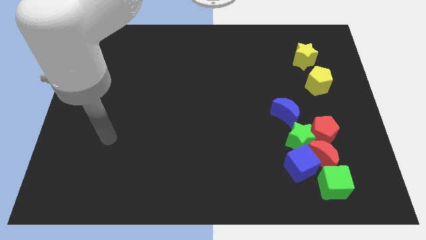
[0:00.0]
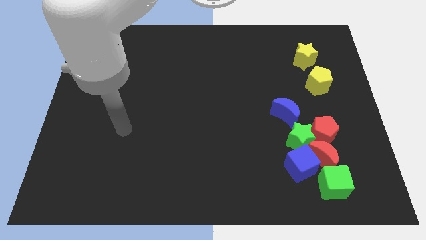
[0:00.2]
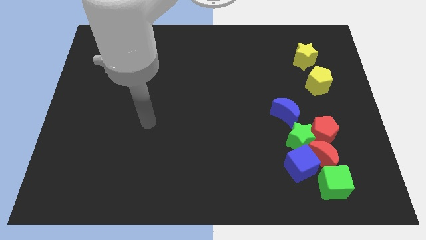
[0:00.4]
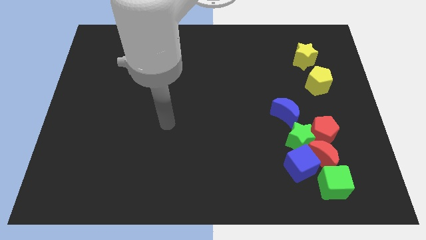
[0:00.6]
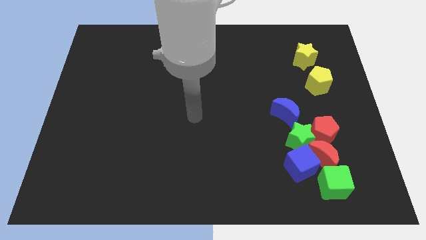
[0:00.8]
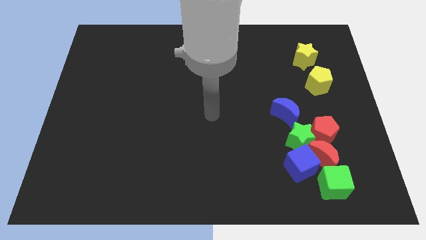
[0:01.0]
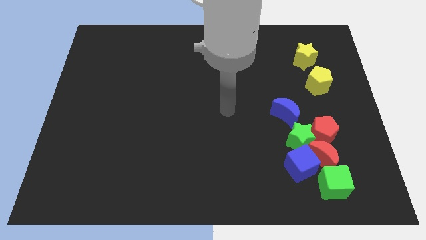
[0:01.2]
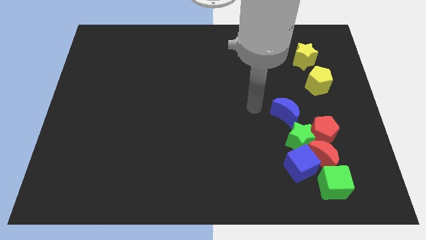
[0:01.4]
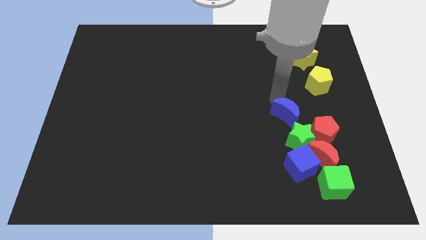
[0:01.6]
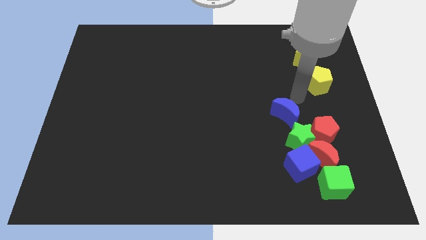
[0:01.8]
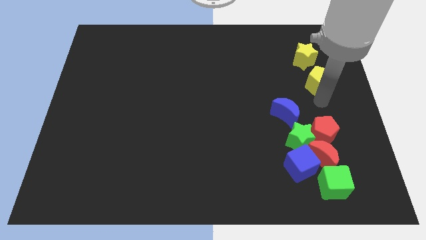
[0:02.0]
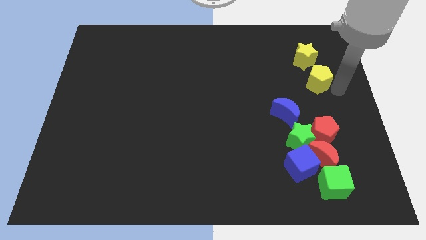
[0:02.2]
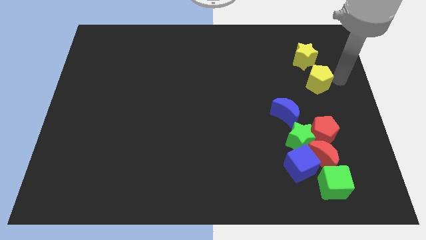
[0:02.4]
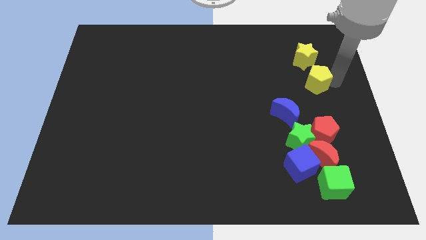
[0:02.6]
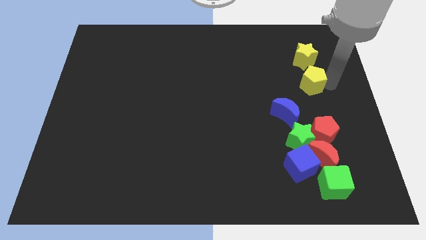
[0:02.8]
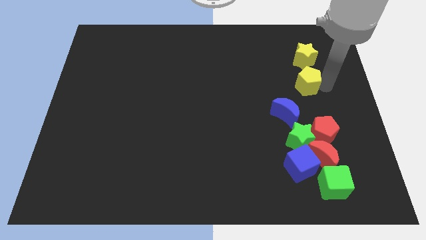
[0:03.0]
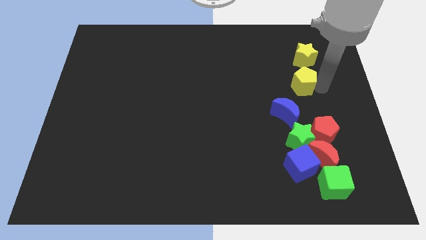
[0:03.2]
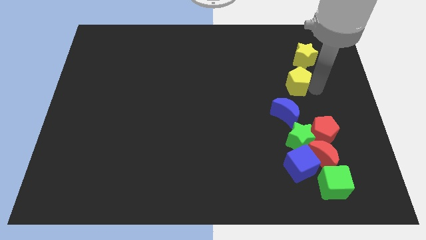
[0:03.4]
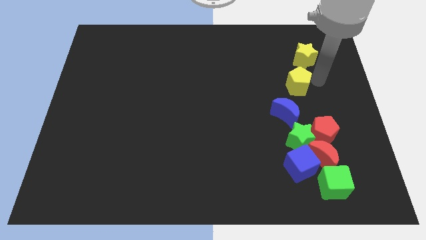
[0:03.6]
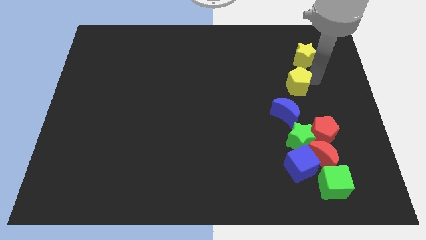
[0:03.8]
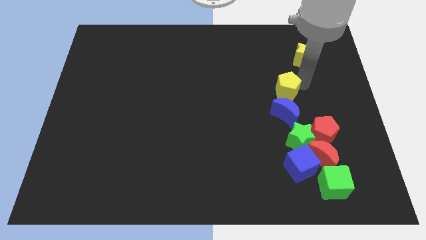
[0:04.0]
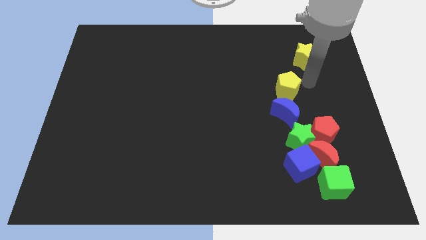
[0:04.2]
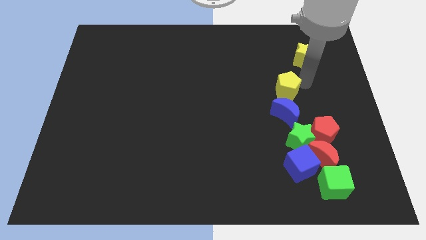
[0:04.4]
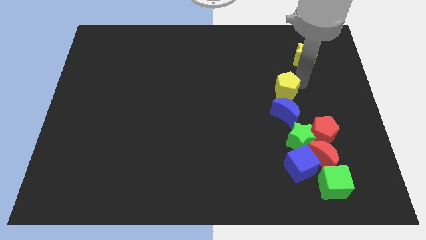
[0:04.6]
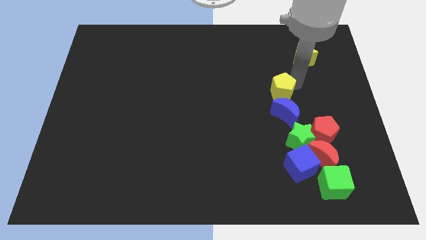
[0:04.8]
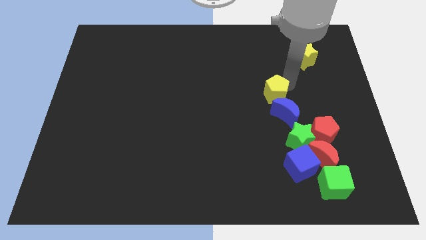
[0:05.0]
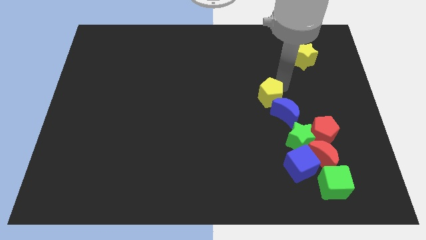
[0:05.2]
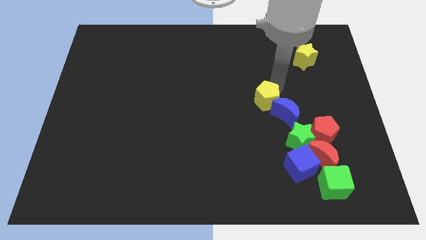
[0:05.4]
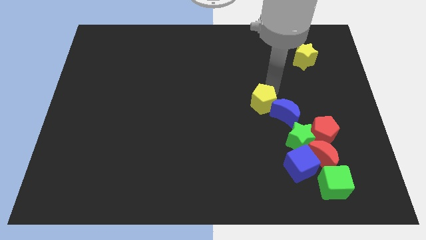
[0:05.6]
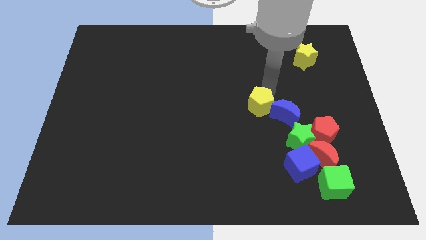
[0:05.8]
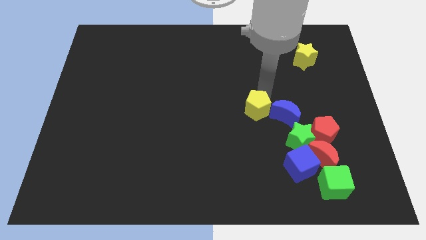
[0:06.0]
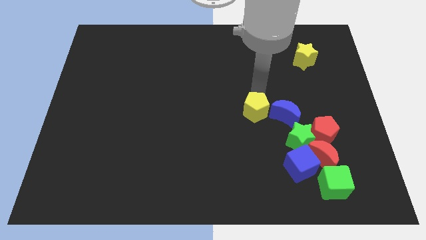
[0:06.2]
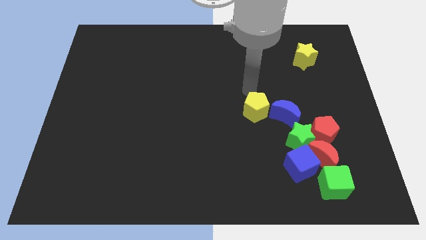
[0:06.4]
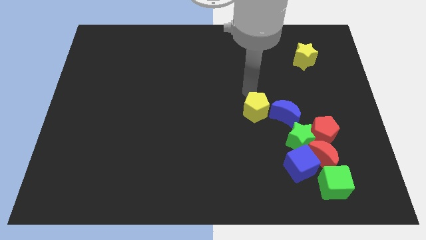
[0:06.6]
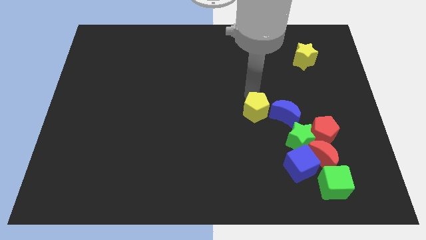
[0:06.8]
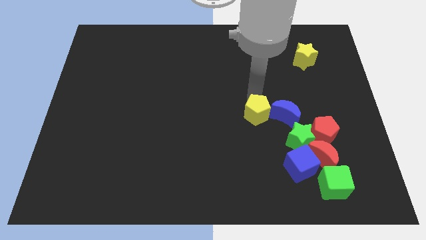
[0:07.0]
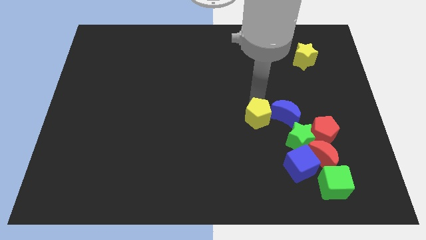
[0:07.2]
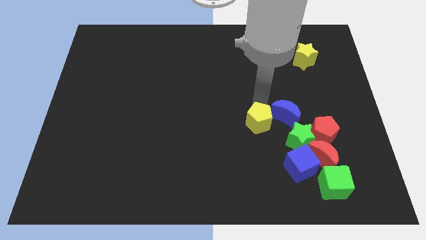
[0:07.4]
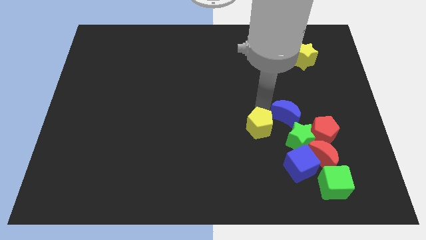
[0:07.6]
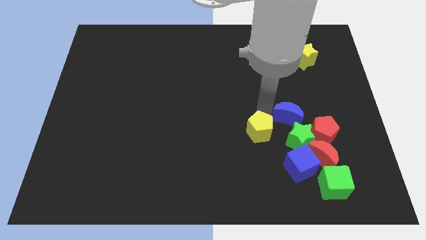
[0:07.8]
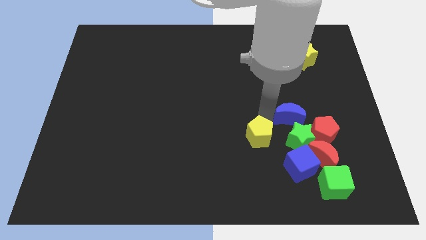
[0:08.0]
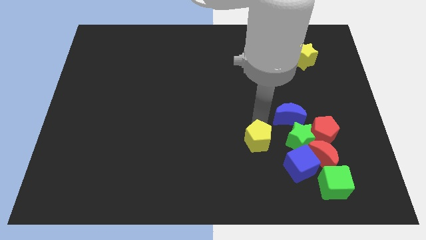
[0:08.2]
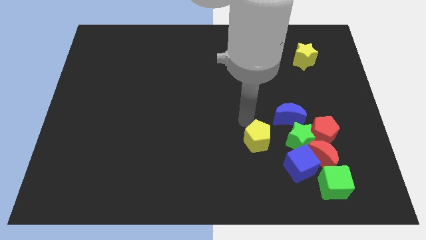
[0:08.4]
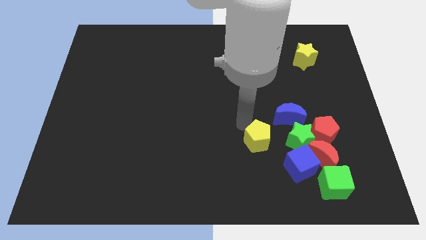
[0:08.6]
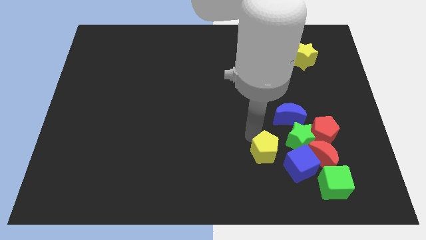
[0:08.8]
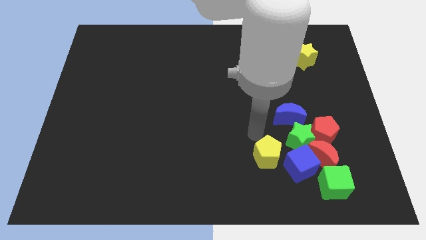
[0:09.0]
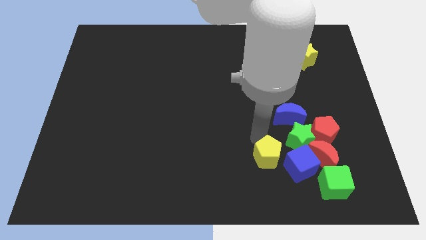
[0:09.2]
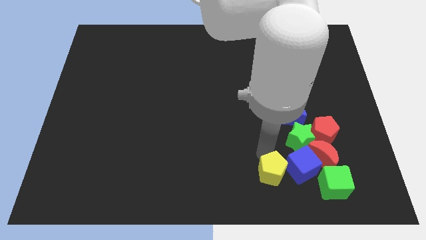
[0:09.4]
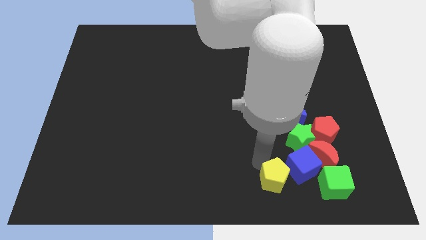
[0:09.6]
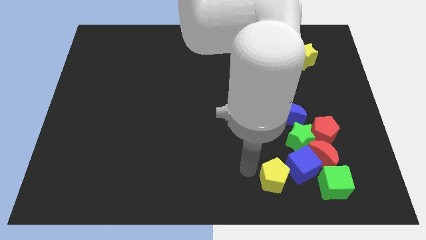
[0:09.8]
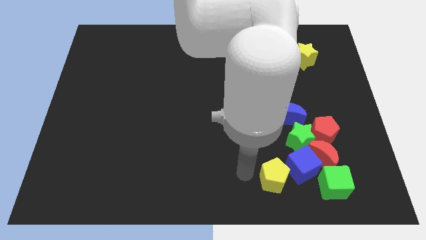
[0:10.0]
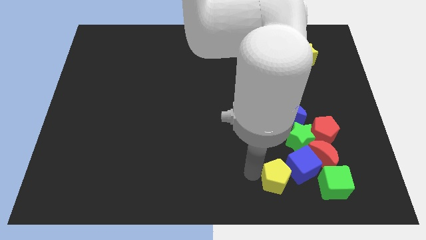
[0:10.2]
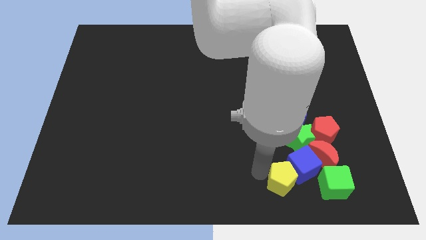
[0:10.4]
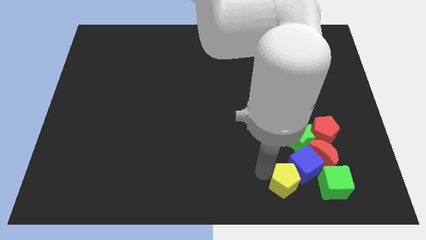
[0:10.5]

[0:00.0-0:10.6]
push the yellow pentagon to the bottom of the green star

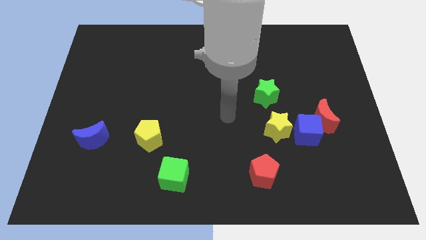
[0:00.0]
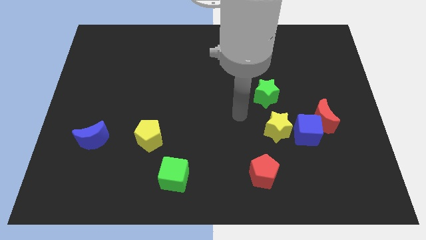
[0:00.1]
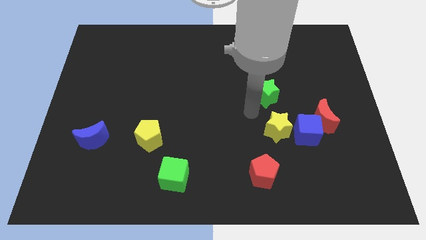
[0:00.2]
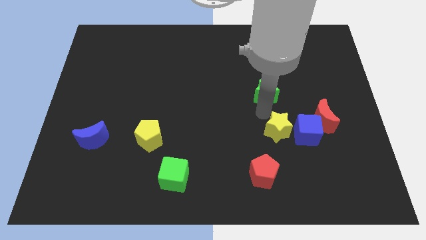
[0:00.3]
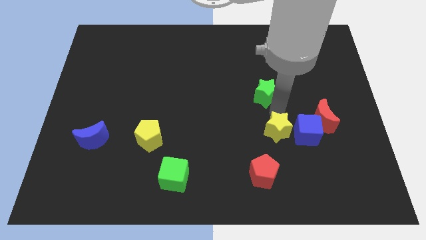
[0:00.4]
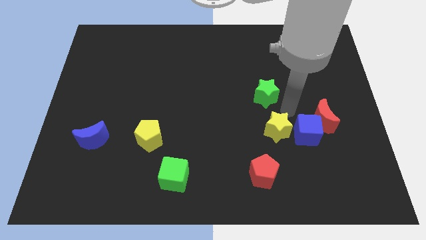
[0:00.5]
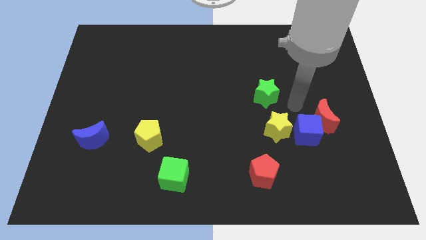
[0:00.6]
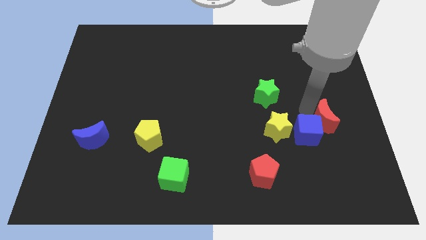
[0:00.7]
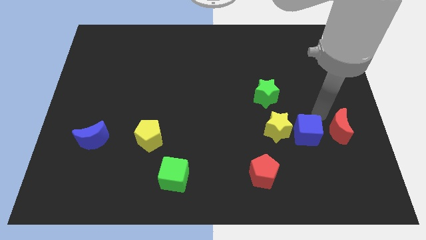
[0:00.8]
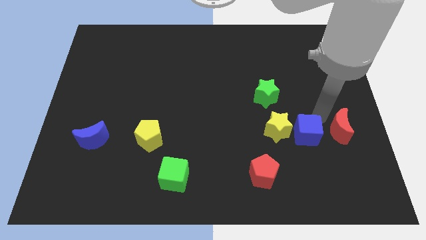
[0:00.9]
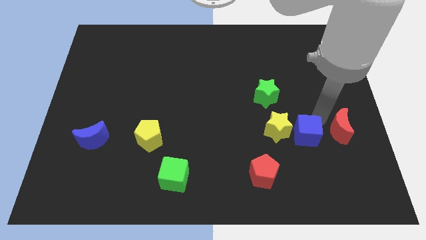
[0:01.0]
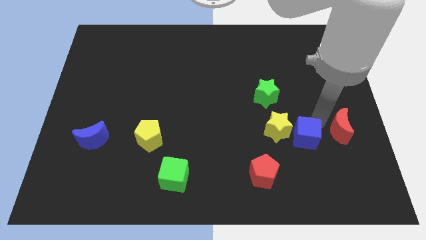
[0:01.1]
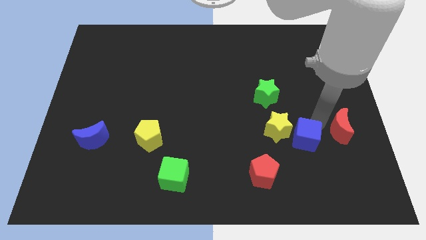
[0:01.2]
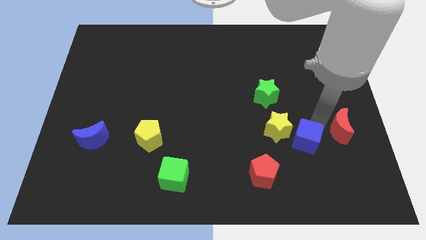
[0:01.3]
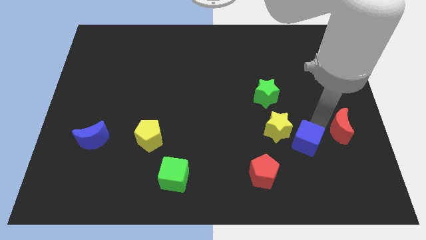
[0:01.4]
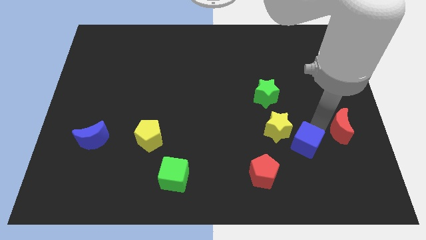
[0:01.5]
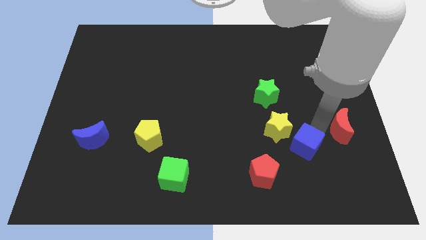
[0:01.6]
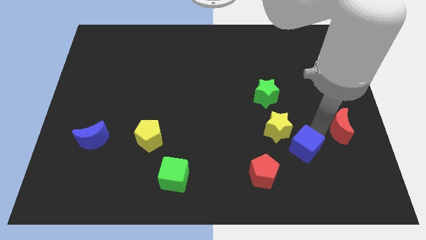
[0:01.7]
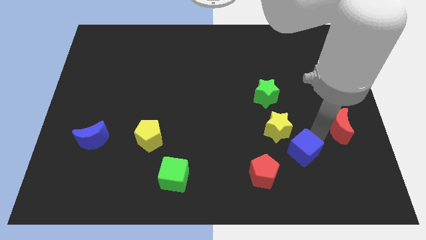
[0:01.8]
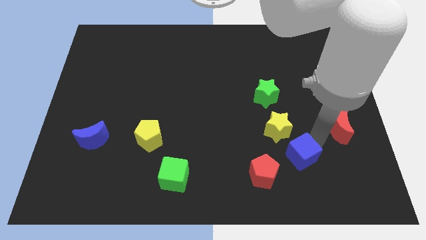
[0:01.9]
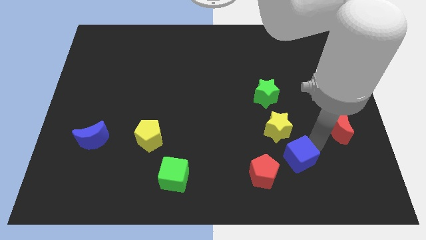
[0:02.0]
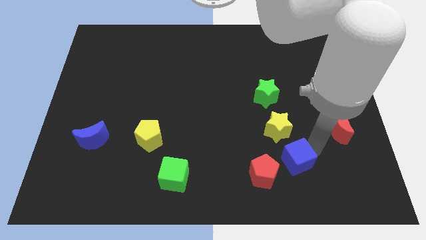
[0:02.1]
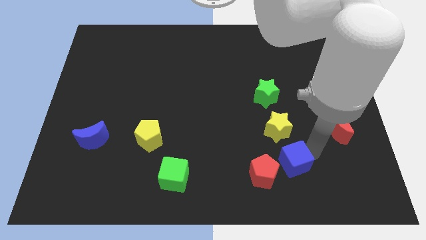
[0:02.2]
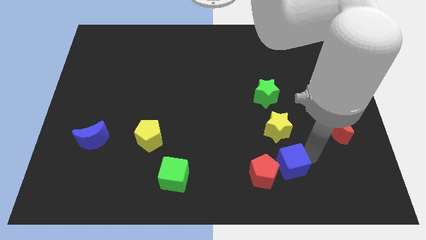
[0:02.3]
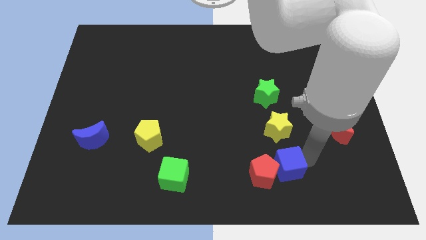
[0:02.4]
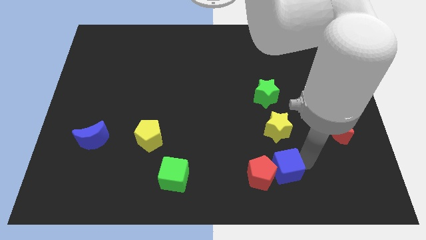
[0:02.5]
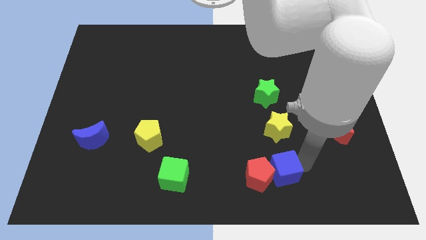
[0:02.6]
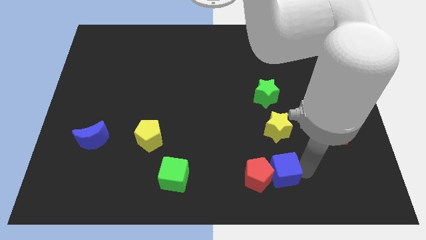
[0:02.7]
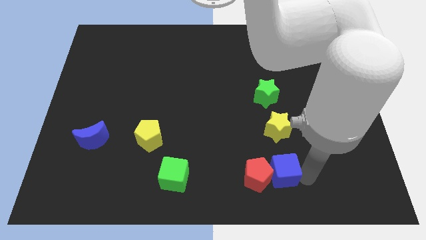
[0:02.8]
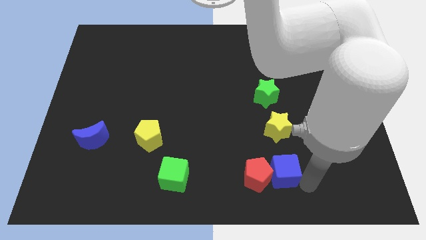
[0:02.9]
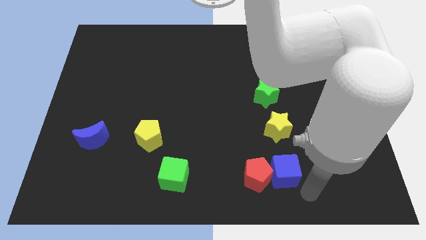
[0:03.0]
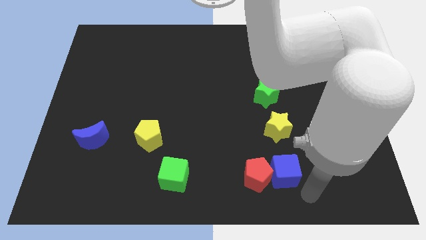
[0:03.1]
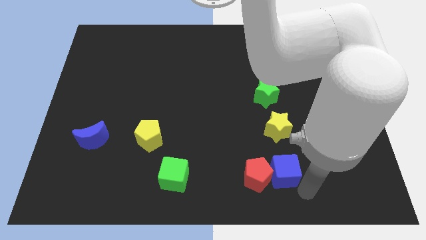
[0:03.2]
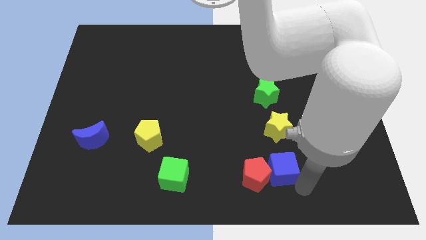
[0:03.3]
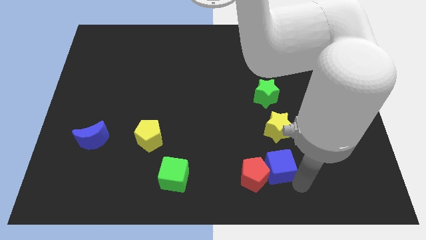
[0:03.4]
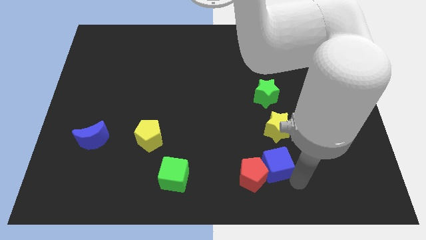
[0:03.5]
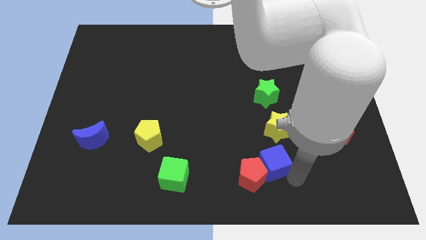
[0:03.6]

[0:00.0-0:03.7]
slide the blue cube diagonally down and to the left of the yellow star
